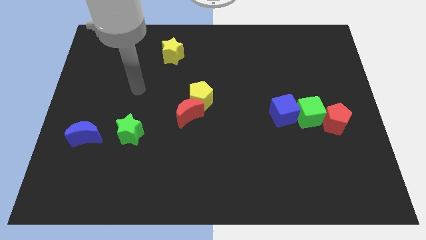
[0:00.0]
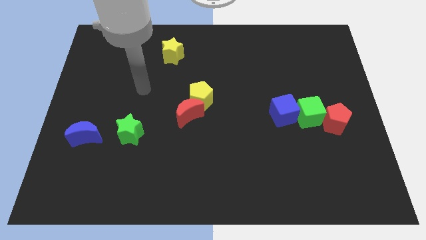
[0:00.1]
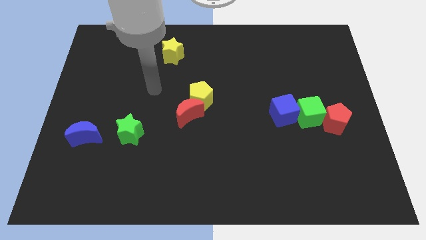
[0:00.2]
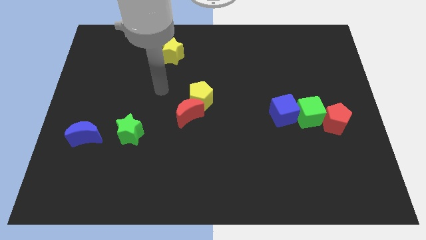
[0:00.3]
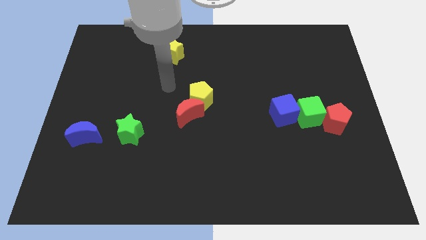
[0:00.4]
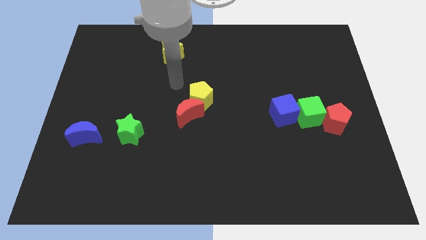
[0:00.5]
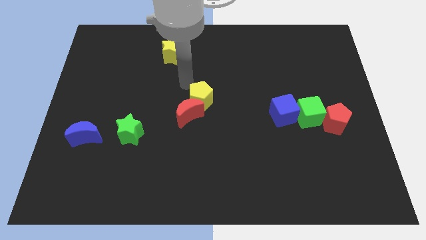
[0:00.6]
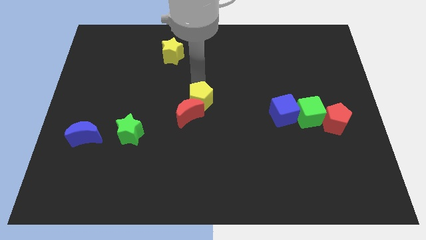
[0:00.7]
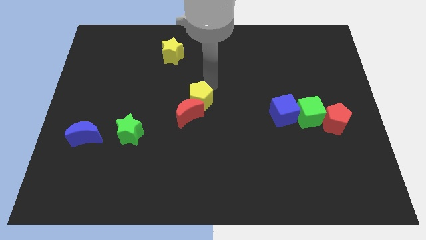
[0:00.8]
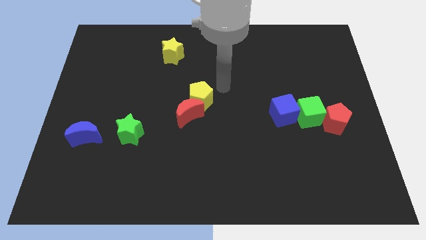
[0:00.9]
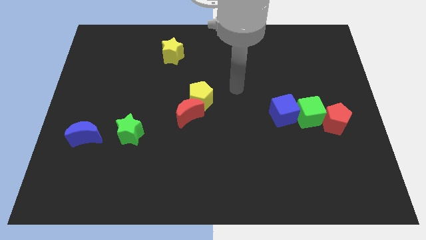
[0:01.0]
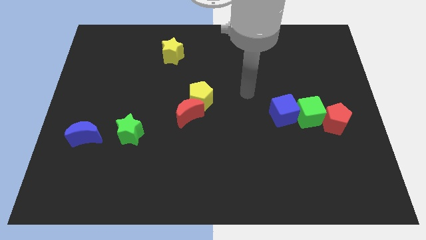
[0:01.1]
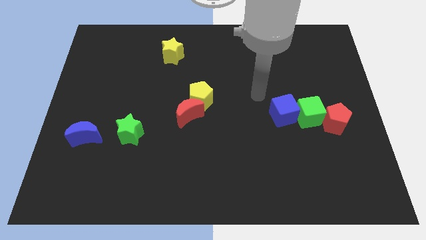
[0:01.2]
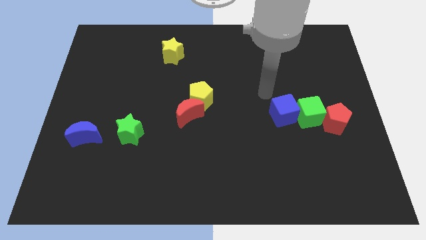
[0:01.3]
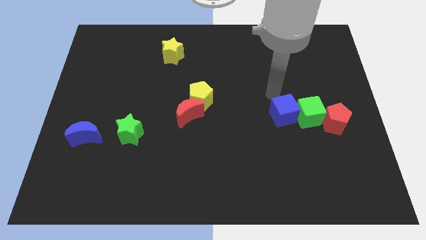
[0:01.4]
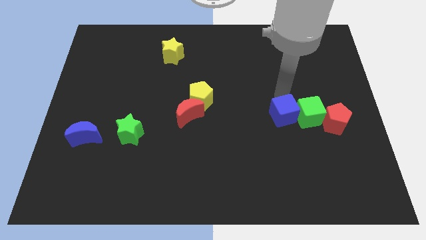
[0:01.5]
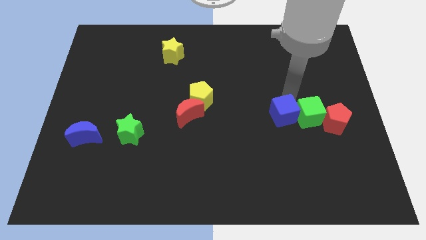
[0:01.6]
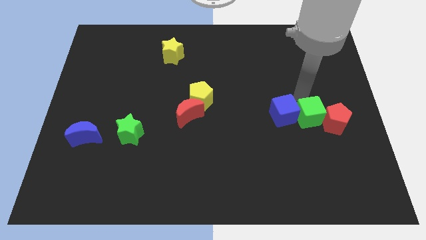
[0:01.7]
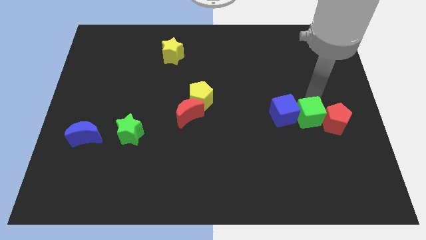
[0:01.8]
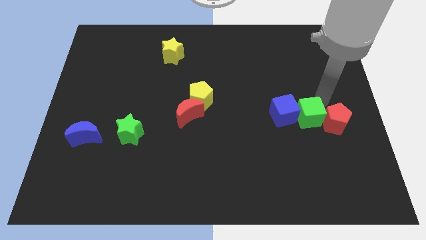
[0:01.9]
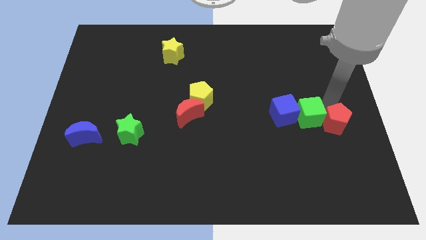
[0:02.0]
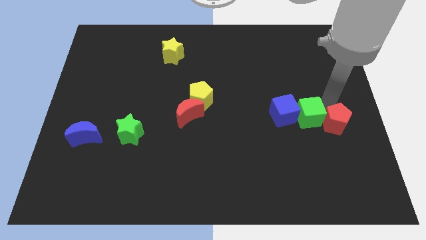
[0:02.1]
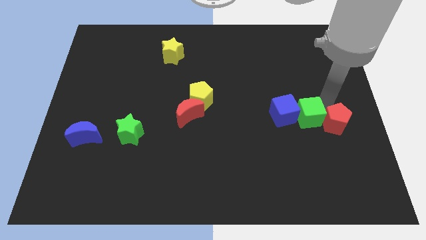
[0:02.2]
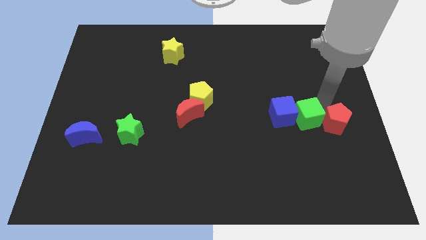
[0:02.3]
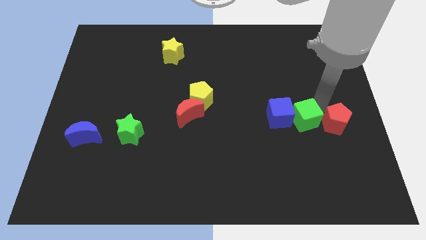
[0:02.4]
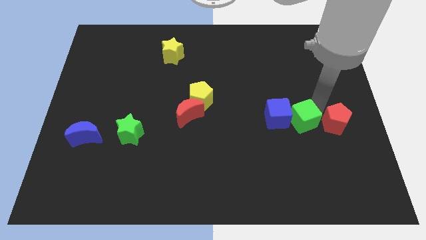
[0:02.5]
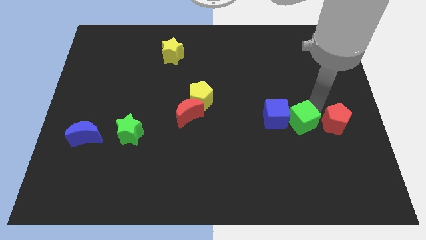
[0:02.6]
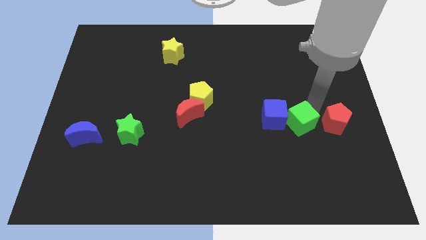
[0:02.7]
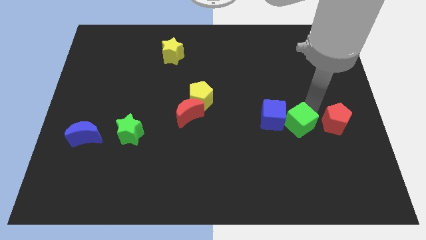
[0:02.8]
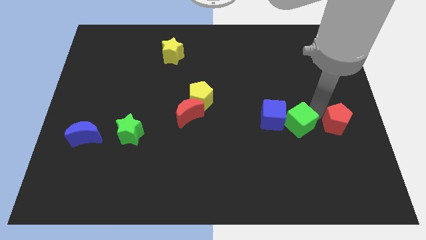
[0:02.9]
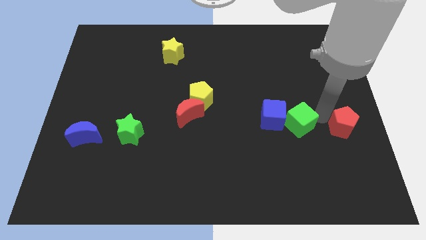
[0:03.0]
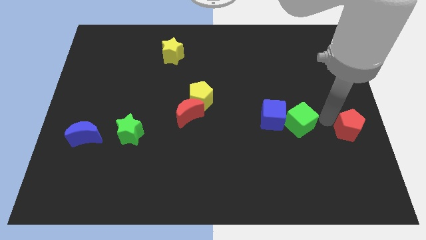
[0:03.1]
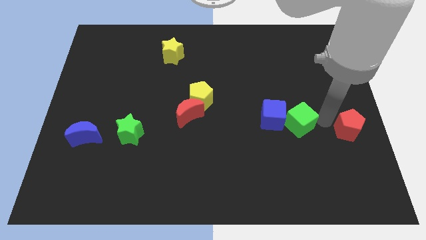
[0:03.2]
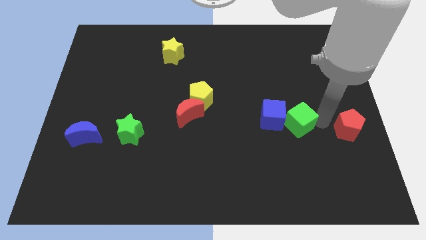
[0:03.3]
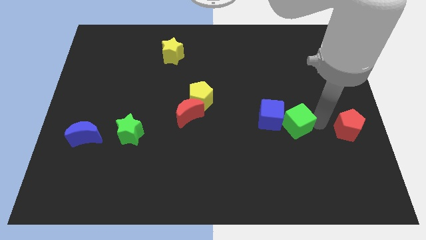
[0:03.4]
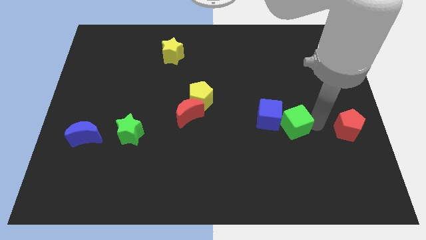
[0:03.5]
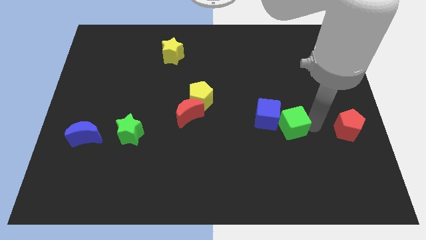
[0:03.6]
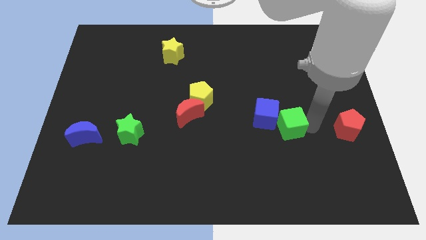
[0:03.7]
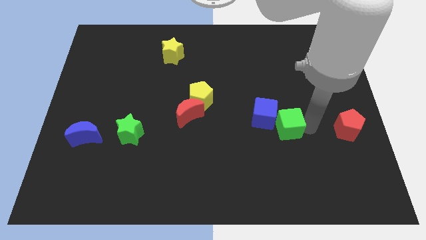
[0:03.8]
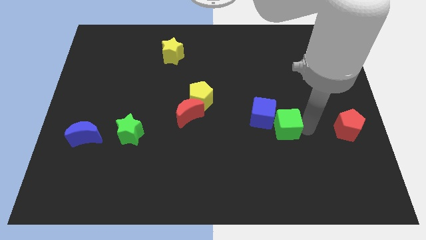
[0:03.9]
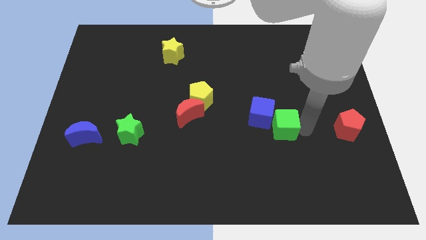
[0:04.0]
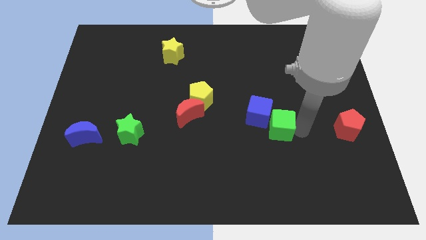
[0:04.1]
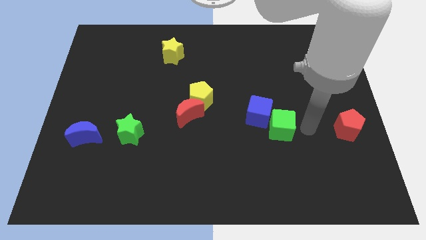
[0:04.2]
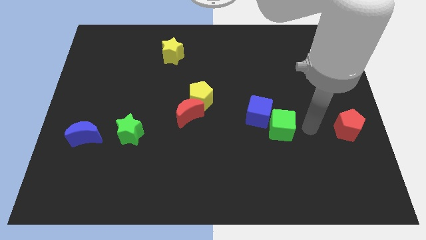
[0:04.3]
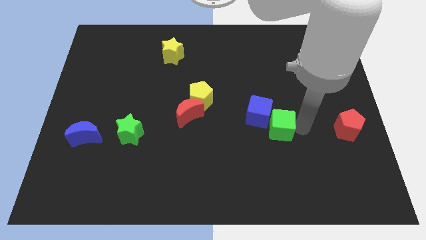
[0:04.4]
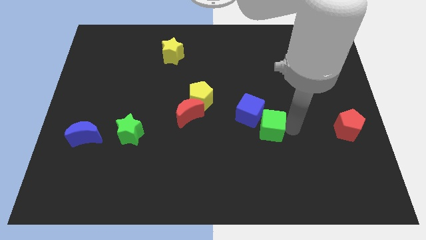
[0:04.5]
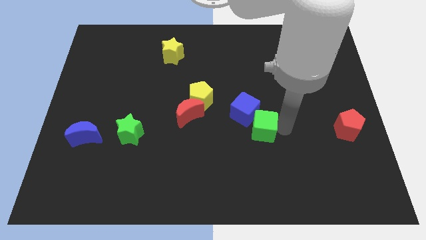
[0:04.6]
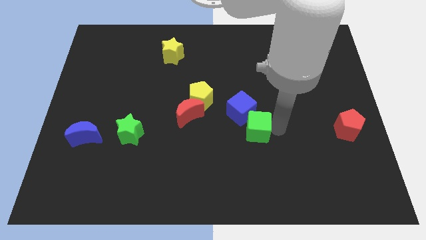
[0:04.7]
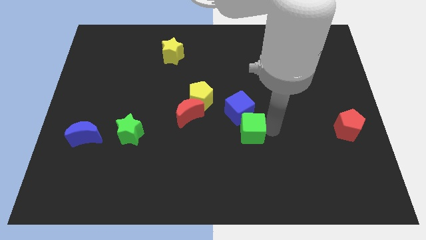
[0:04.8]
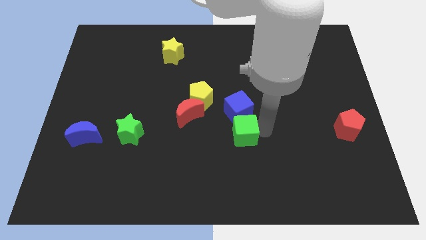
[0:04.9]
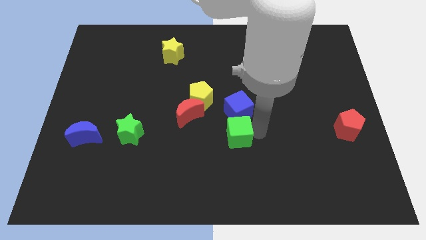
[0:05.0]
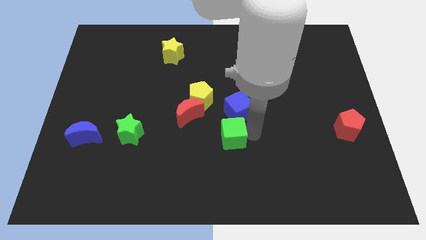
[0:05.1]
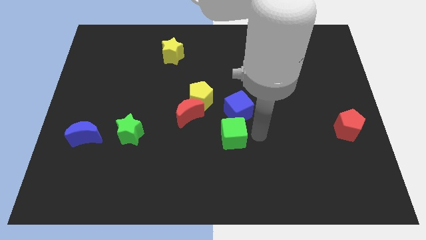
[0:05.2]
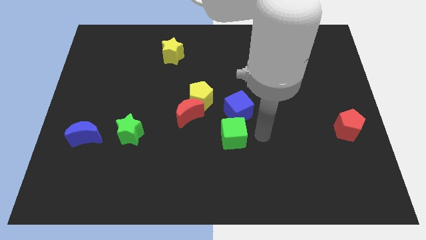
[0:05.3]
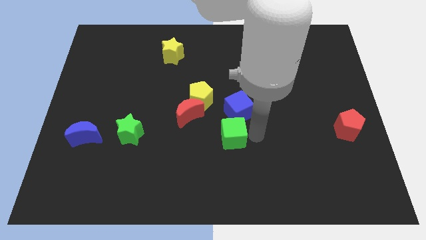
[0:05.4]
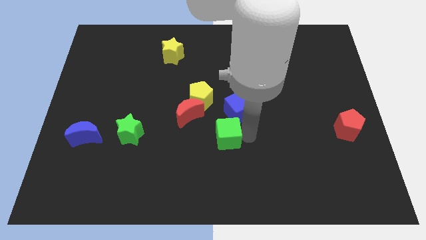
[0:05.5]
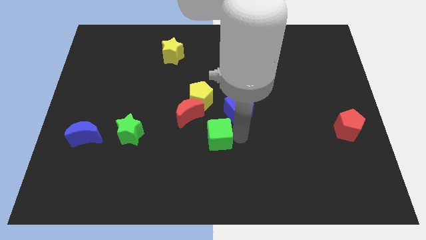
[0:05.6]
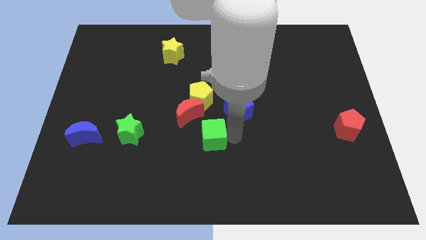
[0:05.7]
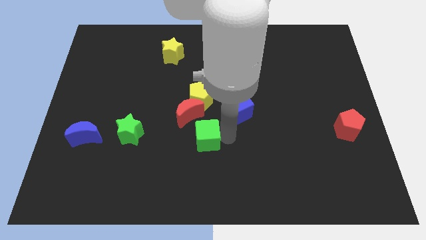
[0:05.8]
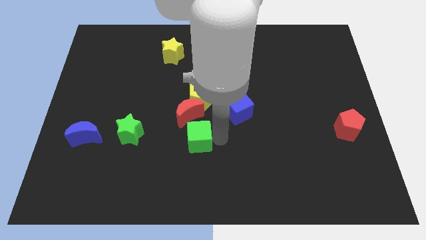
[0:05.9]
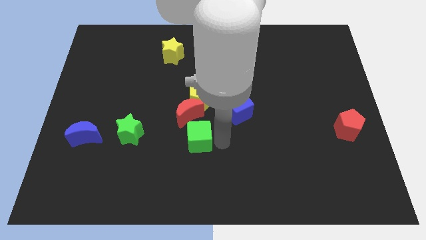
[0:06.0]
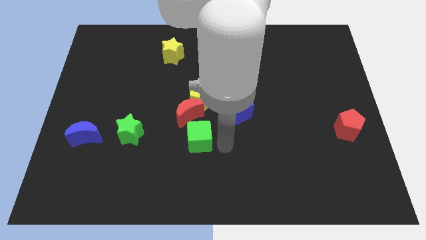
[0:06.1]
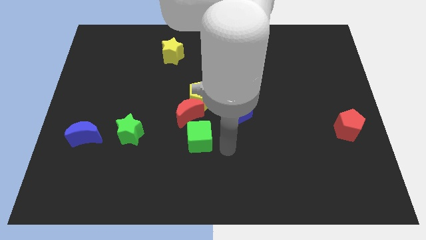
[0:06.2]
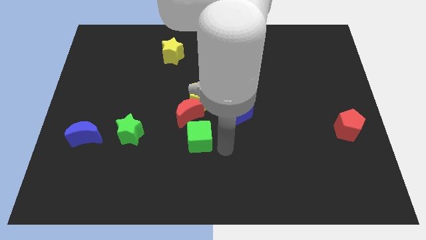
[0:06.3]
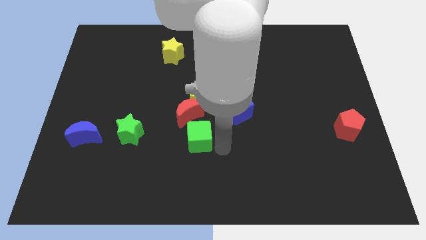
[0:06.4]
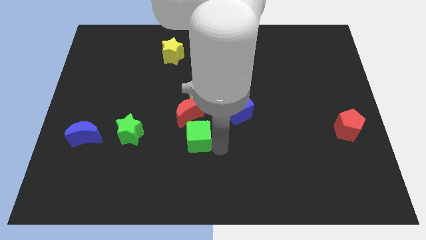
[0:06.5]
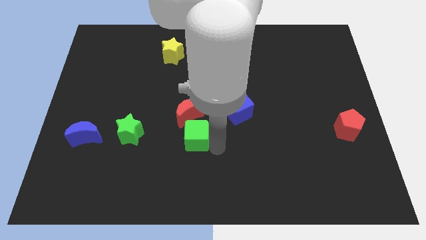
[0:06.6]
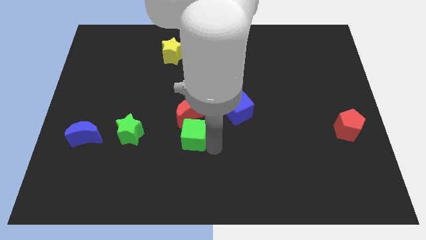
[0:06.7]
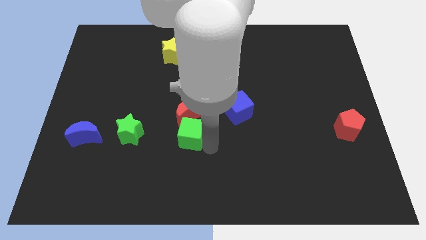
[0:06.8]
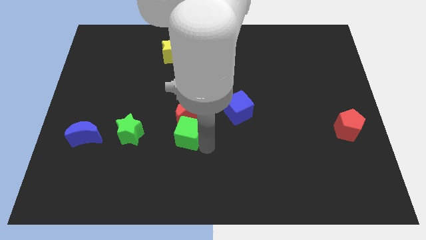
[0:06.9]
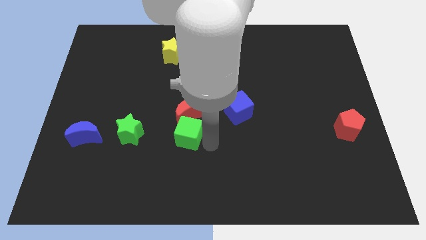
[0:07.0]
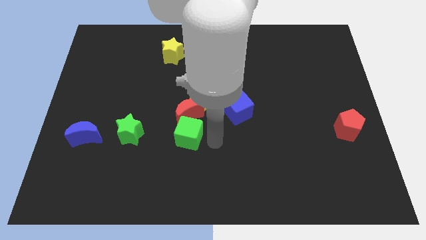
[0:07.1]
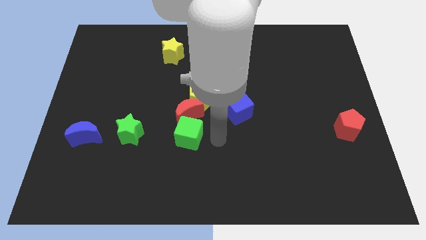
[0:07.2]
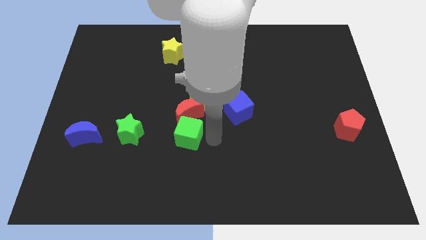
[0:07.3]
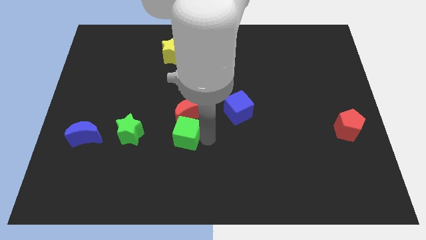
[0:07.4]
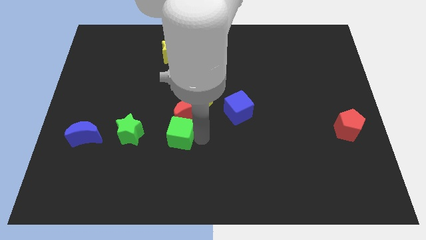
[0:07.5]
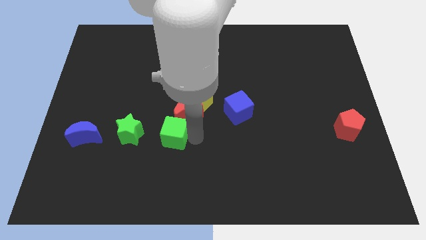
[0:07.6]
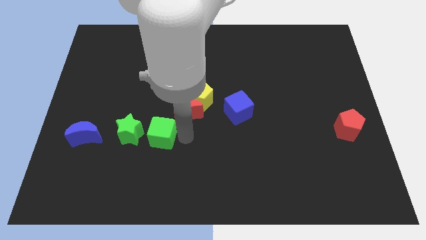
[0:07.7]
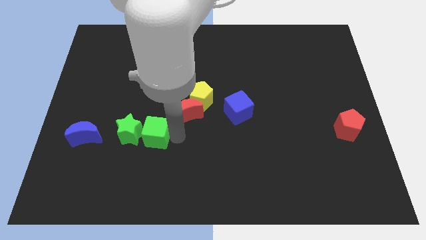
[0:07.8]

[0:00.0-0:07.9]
slide the green cube to the green star
